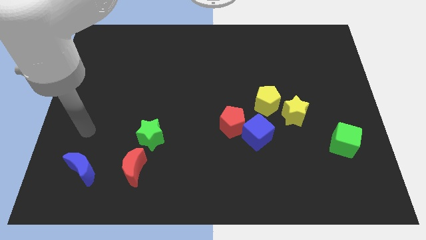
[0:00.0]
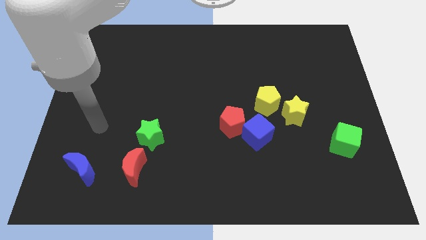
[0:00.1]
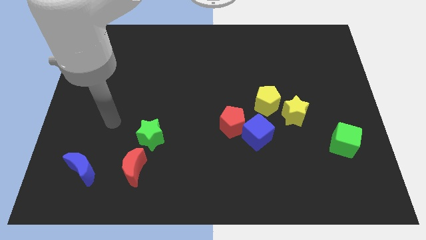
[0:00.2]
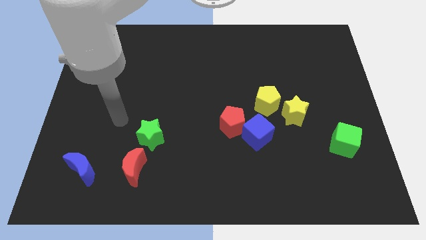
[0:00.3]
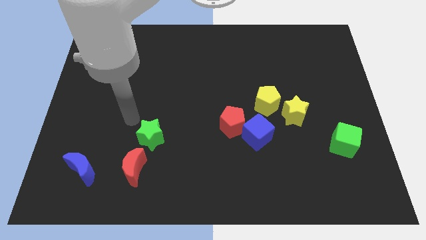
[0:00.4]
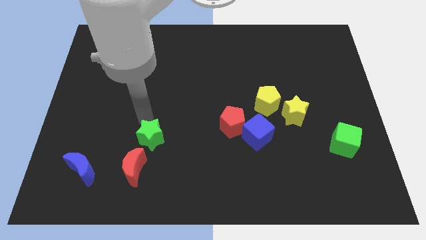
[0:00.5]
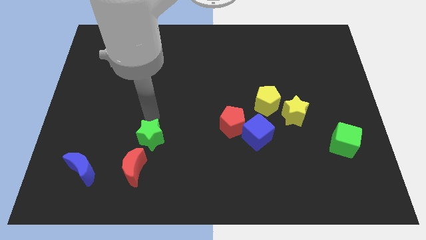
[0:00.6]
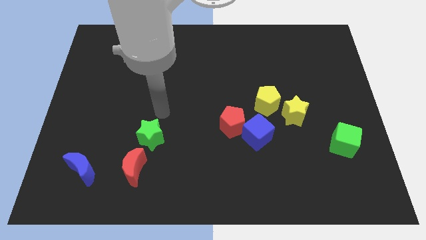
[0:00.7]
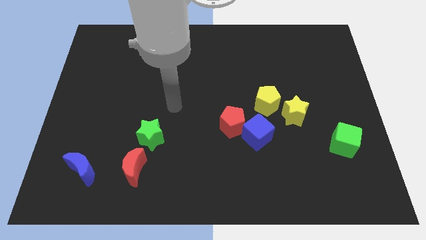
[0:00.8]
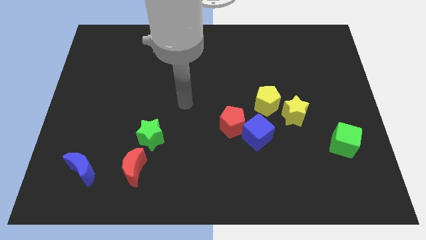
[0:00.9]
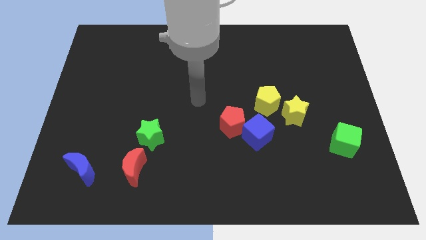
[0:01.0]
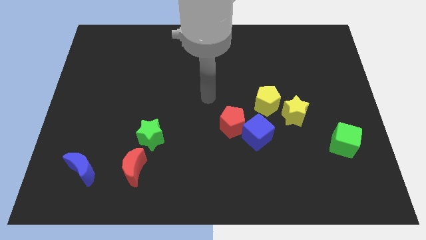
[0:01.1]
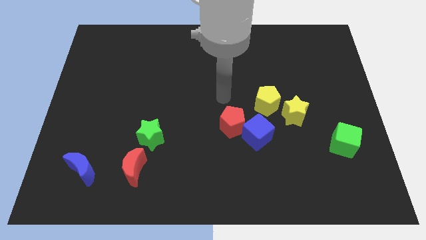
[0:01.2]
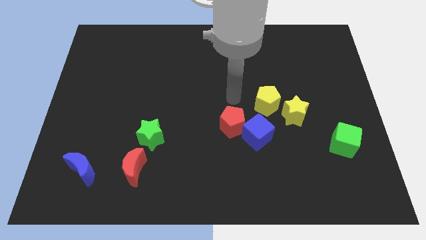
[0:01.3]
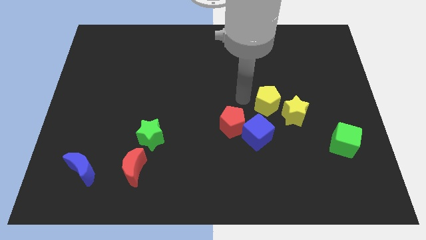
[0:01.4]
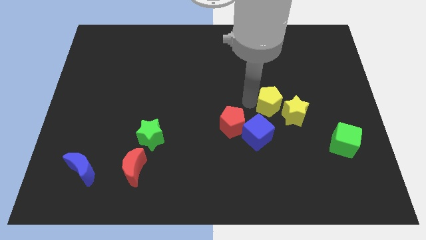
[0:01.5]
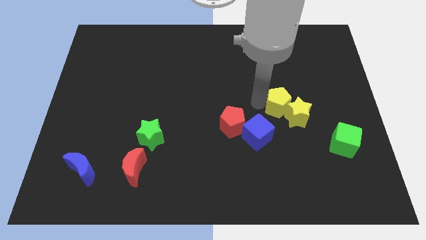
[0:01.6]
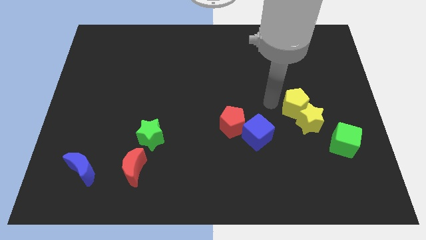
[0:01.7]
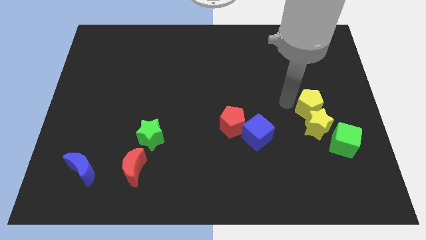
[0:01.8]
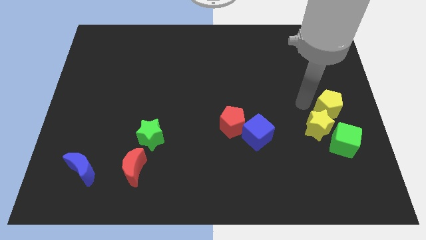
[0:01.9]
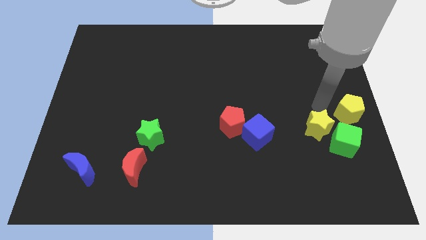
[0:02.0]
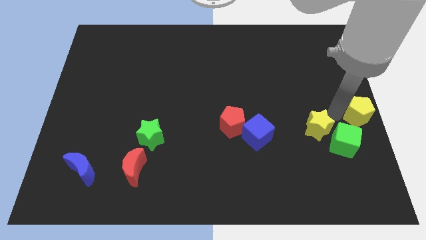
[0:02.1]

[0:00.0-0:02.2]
pull the yellow star apart from the yellow pentagon

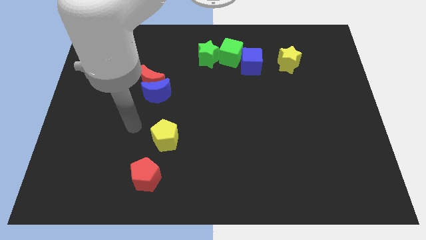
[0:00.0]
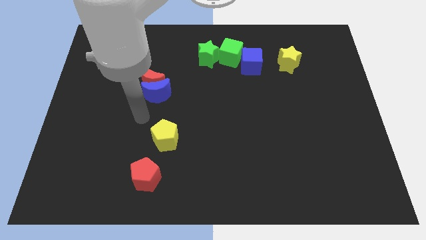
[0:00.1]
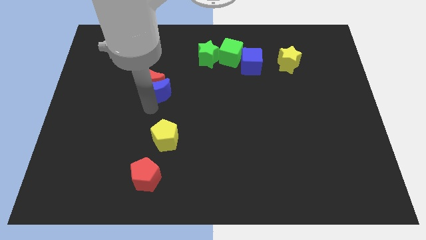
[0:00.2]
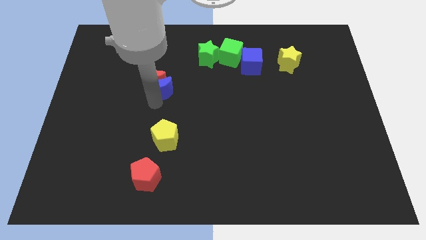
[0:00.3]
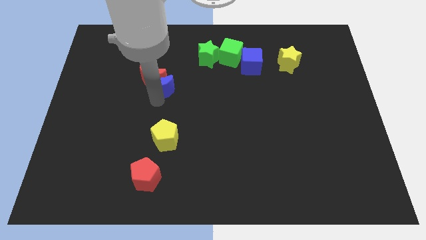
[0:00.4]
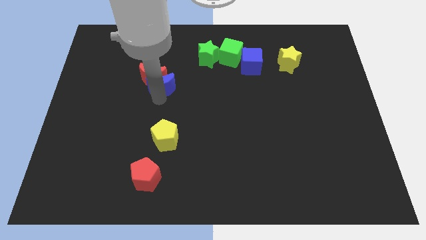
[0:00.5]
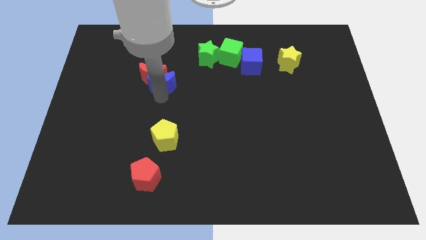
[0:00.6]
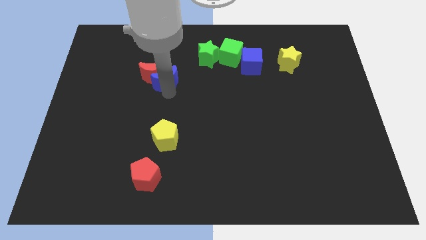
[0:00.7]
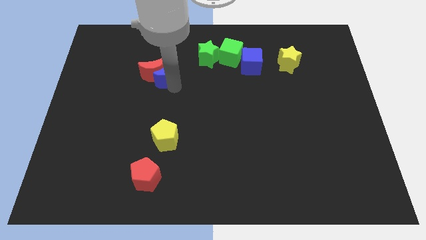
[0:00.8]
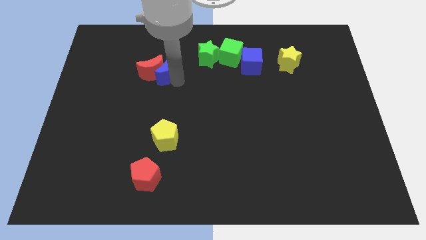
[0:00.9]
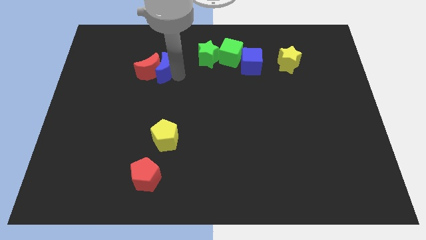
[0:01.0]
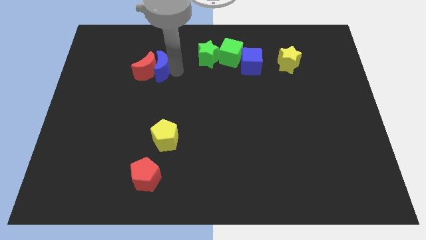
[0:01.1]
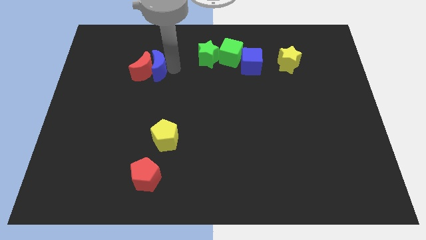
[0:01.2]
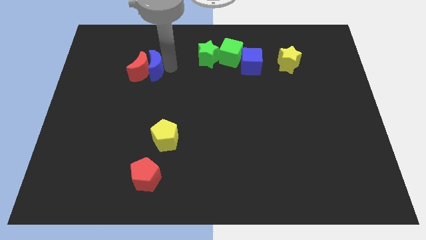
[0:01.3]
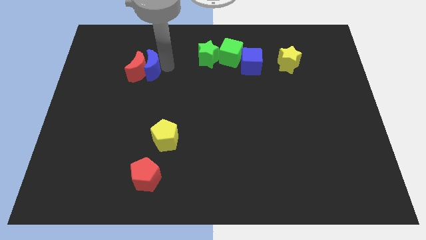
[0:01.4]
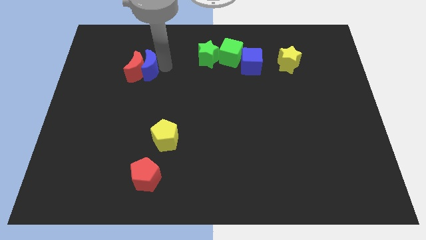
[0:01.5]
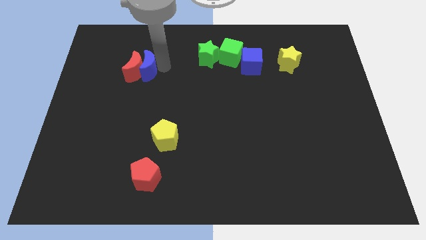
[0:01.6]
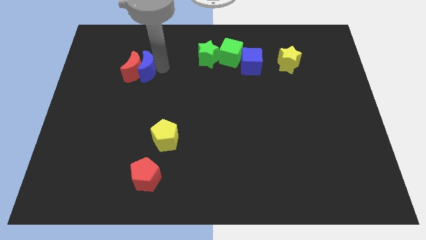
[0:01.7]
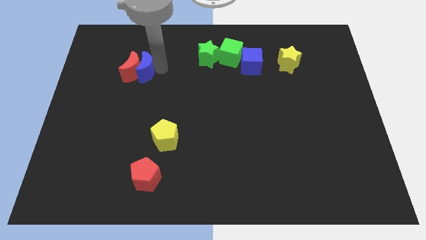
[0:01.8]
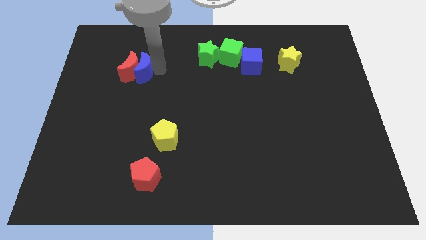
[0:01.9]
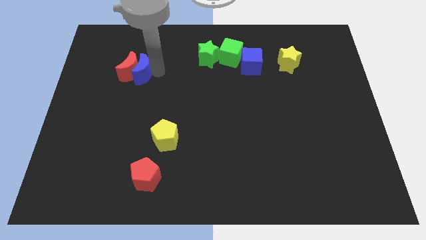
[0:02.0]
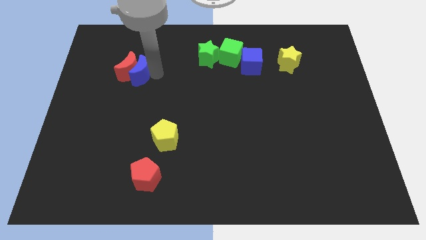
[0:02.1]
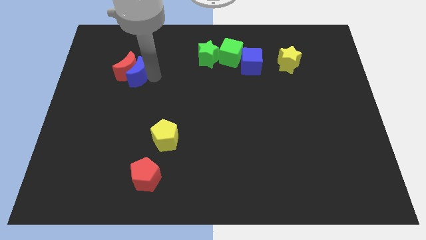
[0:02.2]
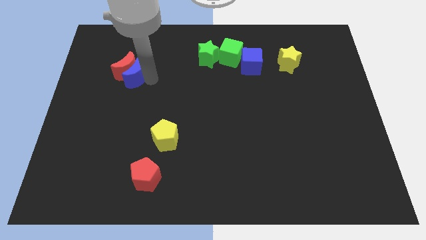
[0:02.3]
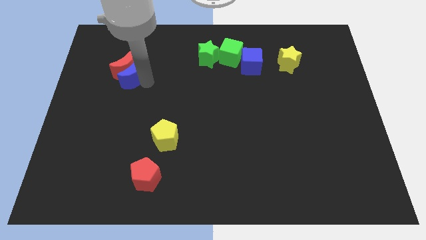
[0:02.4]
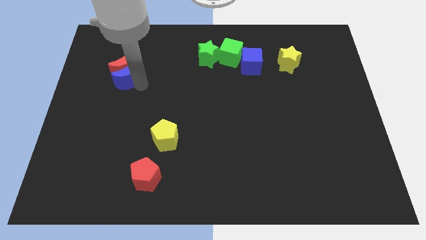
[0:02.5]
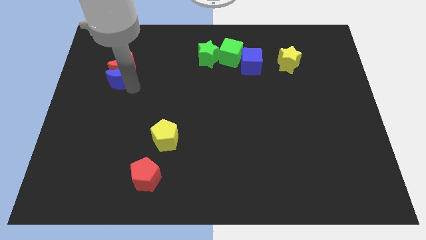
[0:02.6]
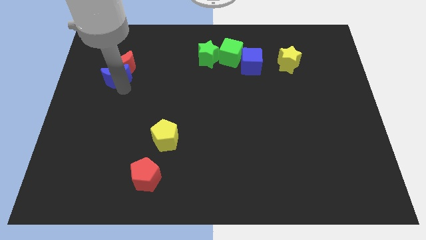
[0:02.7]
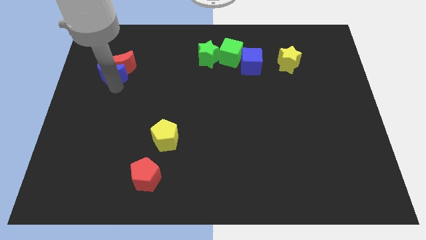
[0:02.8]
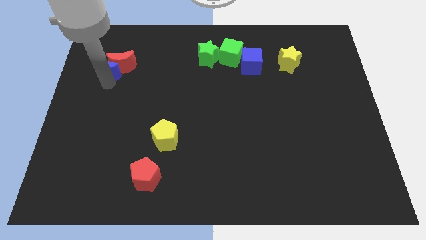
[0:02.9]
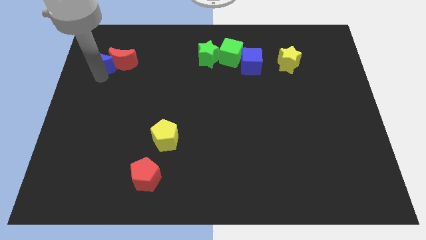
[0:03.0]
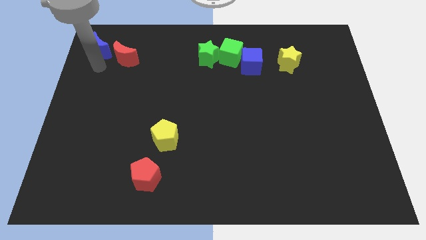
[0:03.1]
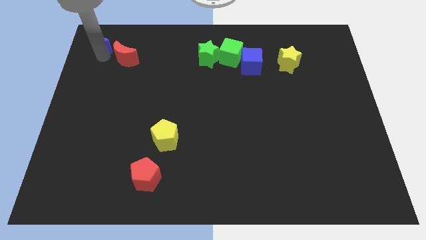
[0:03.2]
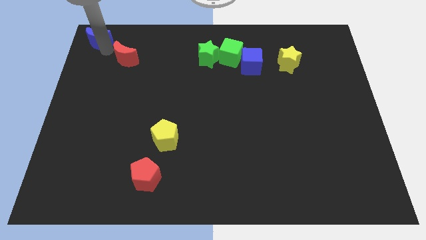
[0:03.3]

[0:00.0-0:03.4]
move the red moon away from the blue moon

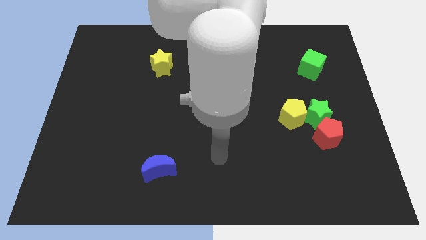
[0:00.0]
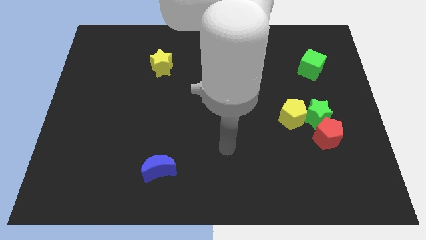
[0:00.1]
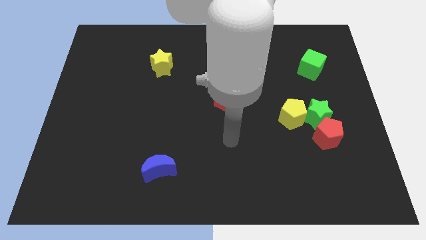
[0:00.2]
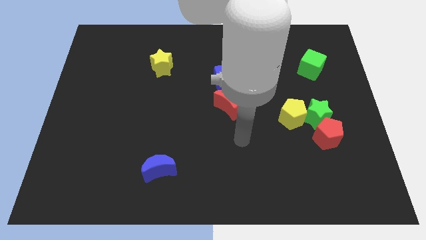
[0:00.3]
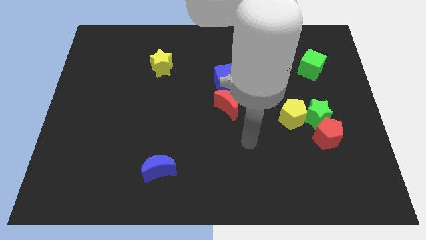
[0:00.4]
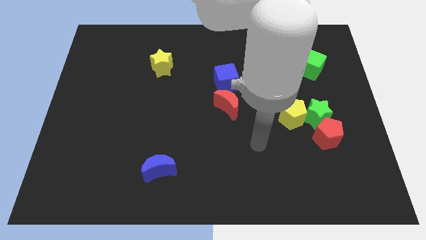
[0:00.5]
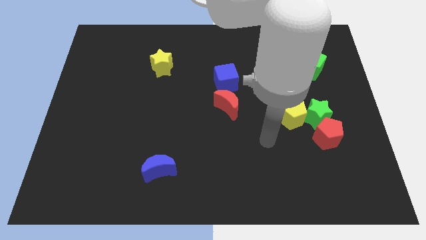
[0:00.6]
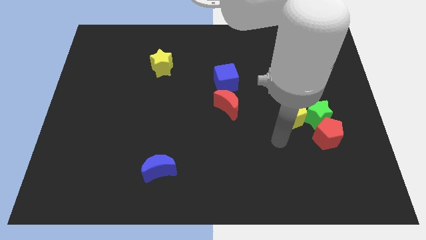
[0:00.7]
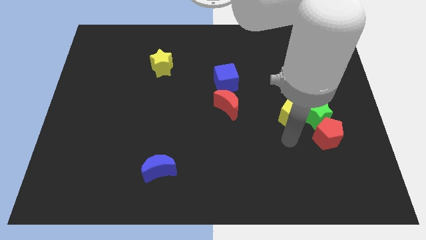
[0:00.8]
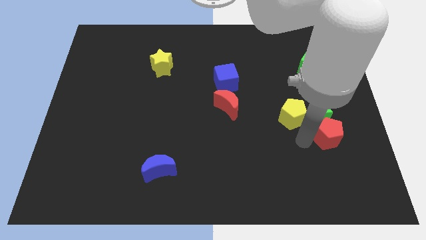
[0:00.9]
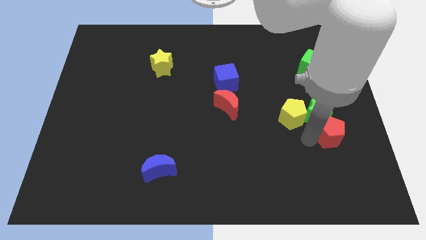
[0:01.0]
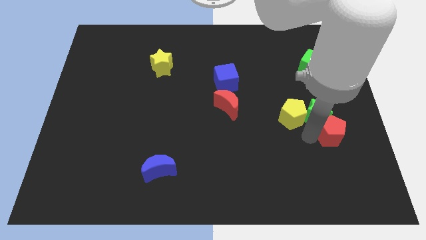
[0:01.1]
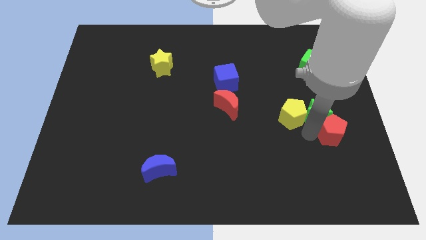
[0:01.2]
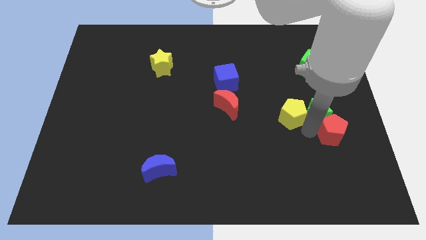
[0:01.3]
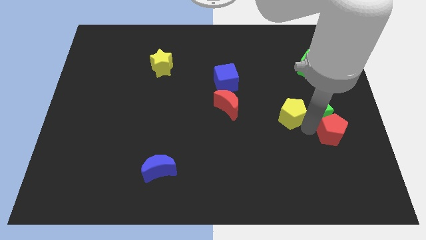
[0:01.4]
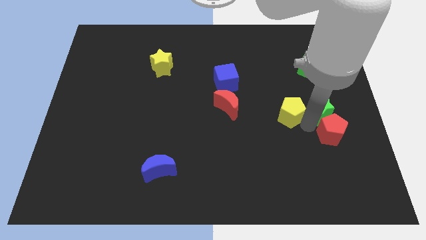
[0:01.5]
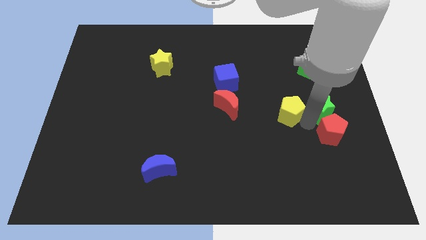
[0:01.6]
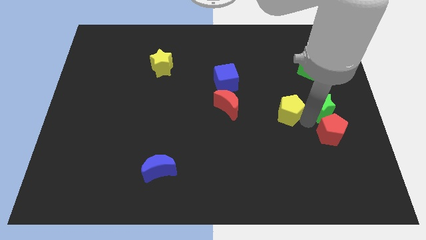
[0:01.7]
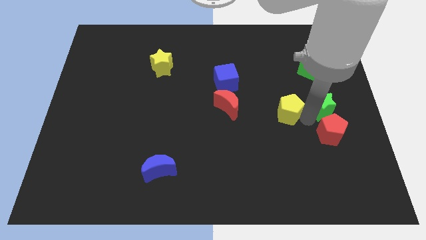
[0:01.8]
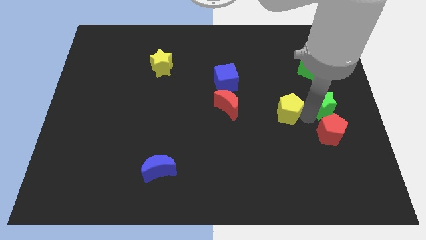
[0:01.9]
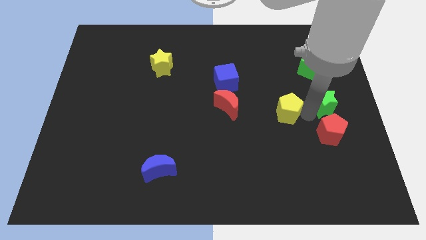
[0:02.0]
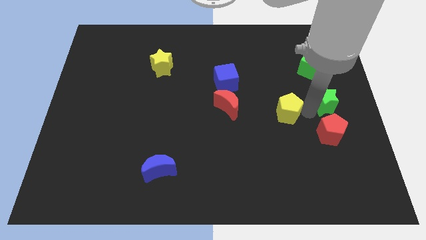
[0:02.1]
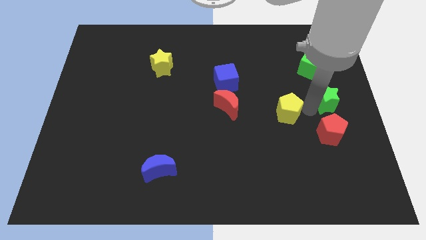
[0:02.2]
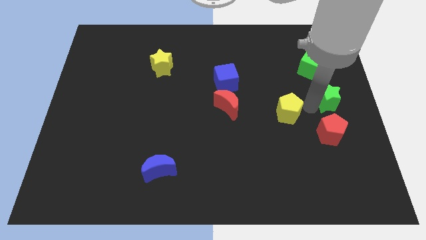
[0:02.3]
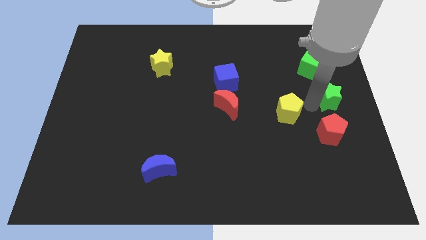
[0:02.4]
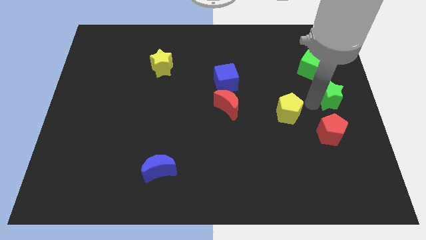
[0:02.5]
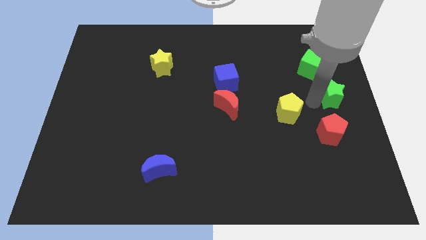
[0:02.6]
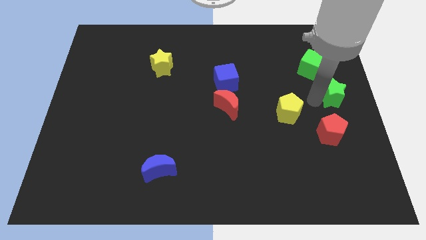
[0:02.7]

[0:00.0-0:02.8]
pull the green star apart from the yellow pentagon and red pentagon

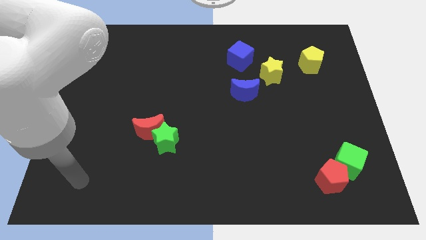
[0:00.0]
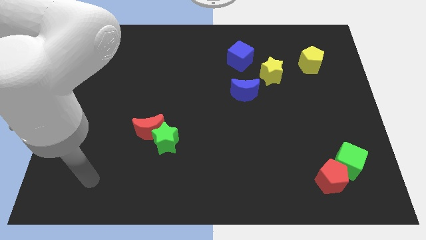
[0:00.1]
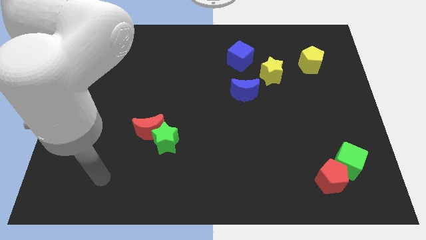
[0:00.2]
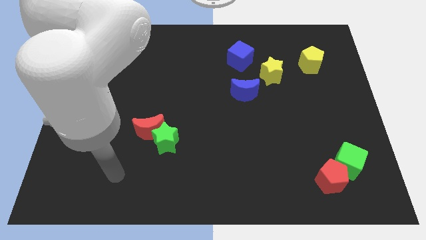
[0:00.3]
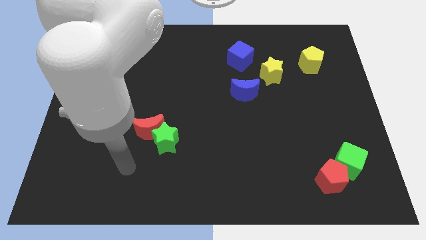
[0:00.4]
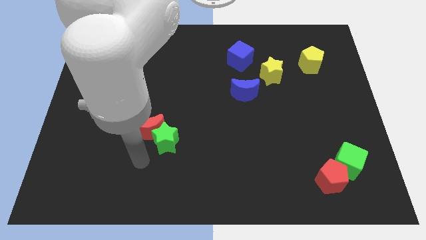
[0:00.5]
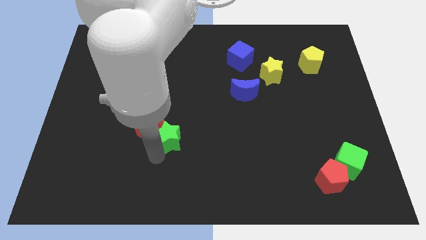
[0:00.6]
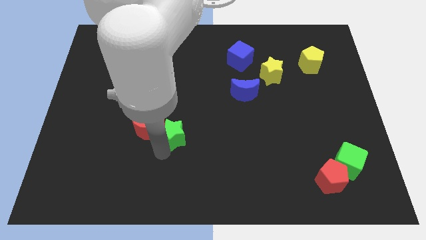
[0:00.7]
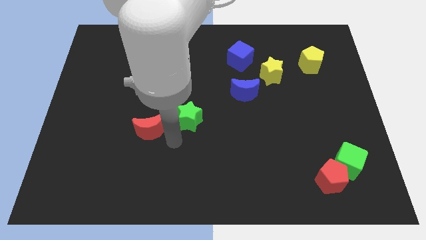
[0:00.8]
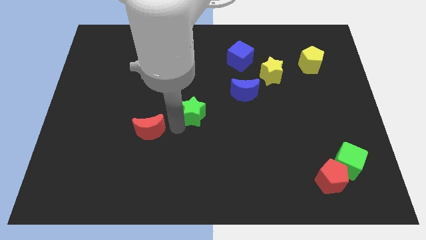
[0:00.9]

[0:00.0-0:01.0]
pull the red moon apart from the green star

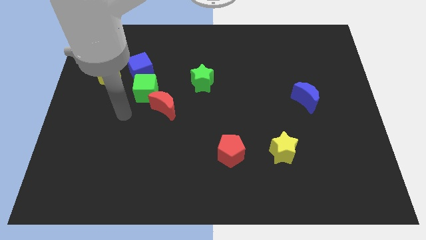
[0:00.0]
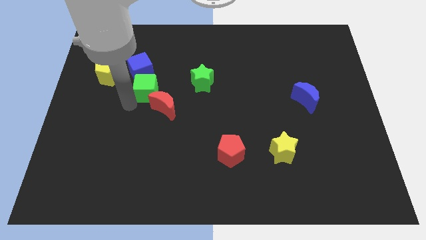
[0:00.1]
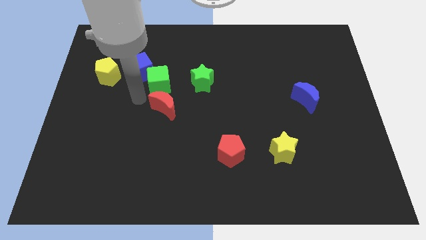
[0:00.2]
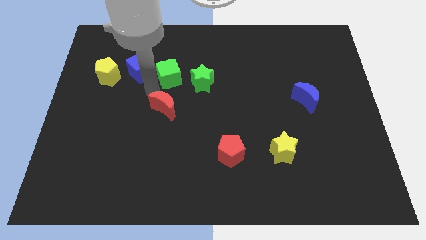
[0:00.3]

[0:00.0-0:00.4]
move the red moon away from the green cube
